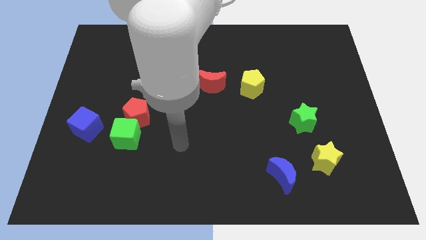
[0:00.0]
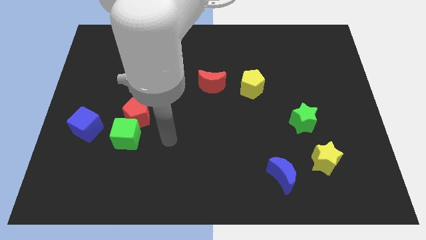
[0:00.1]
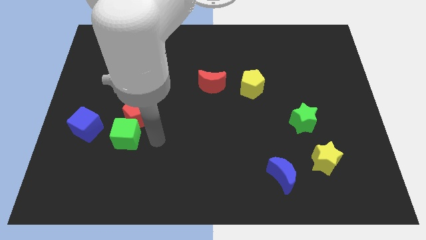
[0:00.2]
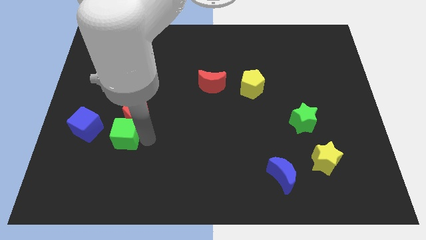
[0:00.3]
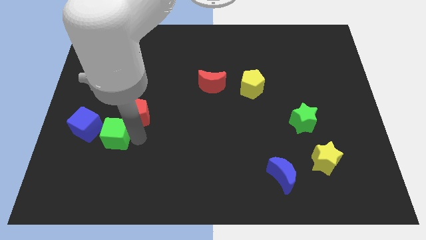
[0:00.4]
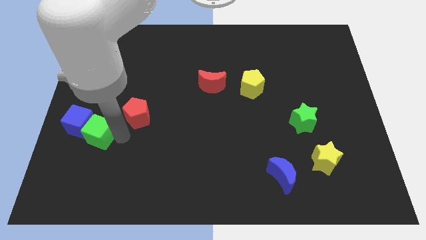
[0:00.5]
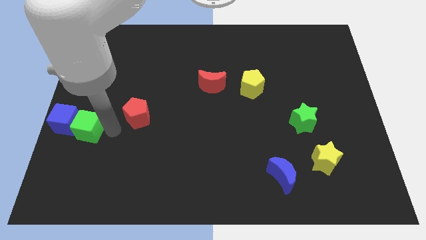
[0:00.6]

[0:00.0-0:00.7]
separate the red pentagon from the green cube

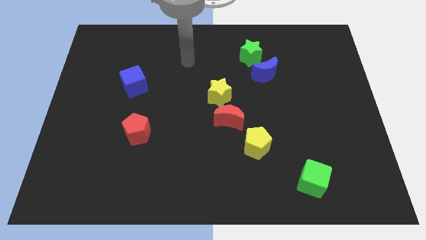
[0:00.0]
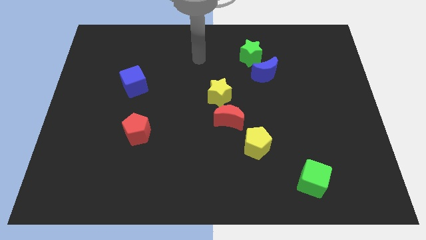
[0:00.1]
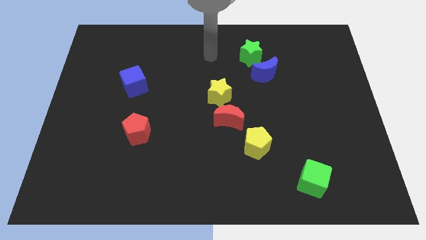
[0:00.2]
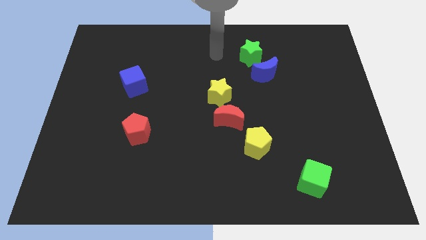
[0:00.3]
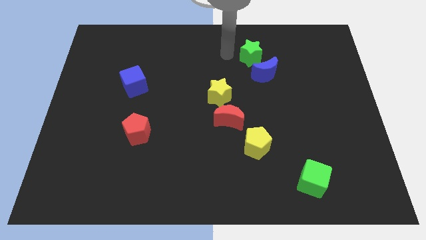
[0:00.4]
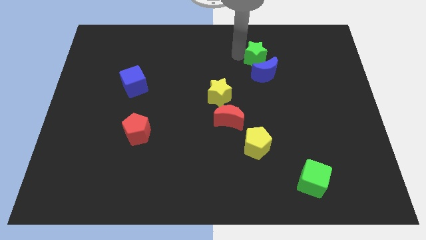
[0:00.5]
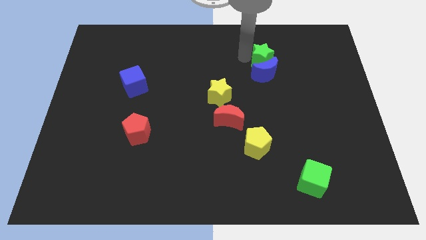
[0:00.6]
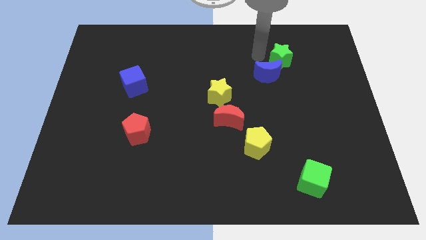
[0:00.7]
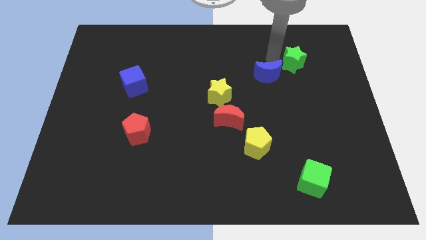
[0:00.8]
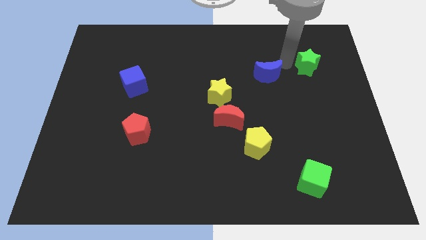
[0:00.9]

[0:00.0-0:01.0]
pull the blue moon apart from the green star

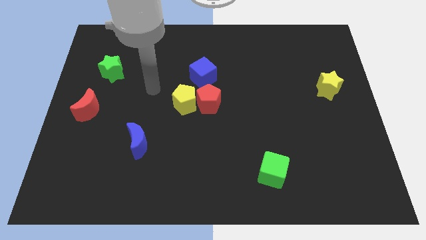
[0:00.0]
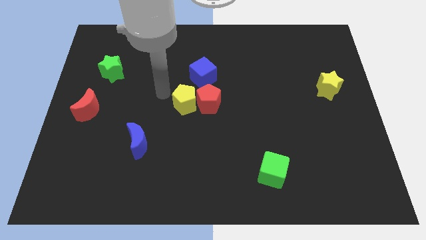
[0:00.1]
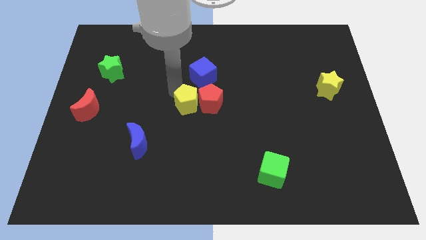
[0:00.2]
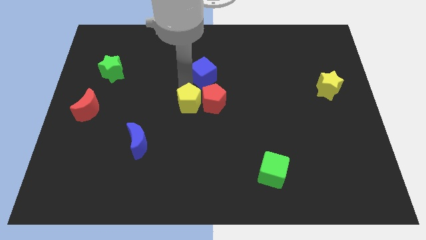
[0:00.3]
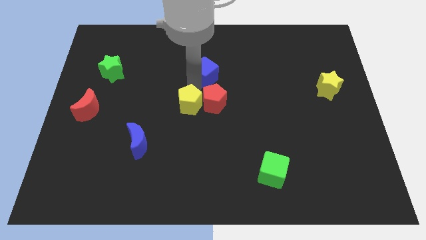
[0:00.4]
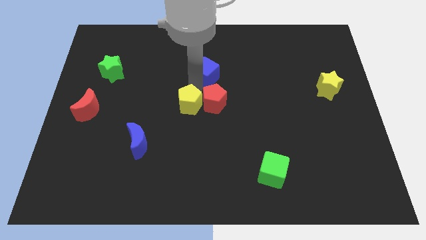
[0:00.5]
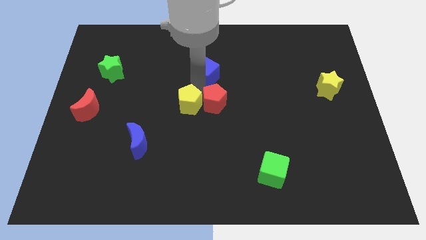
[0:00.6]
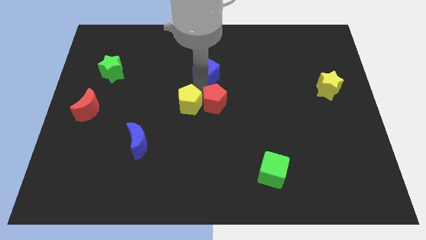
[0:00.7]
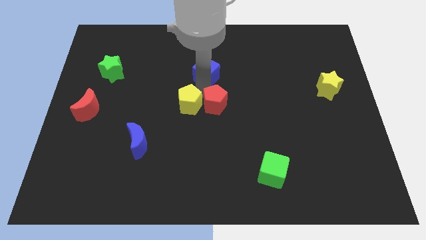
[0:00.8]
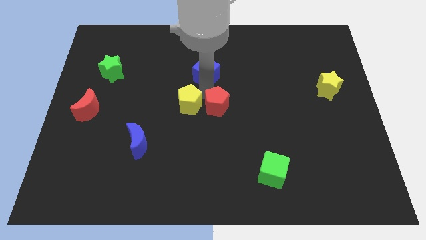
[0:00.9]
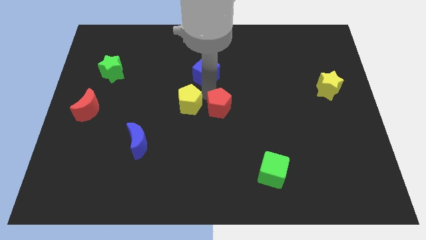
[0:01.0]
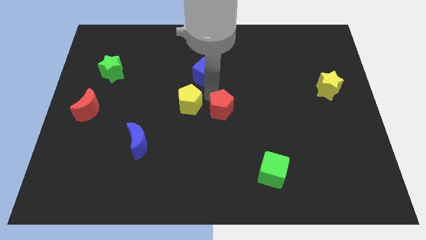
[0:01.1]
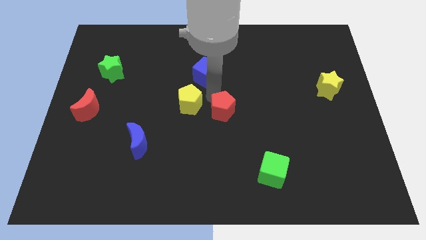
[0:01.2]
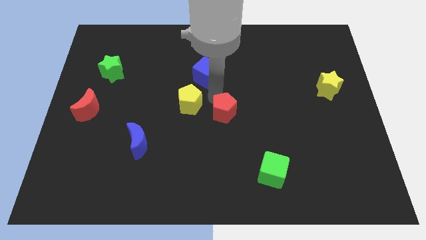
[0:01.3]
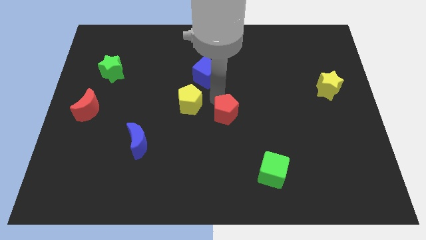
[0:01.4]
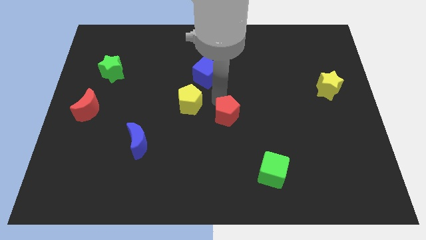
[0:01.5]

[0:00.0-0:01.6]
move the red pentagon away from the yellow pentagon and blue cube

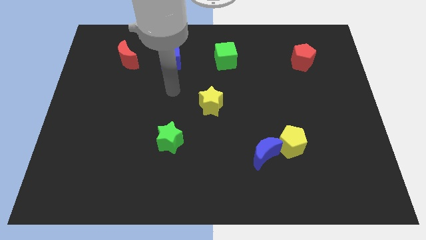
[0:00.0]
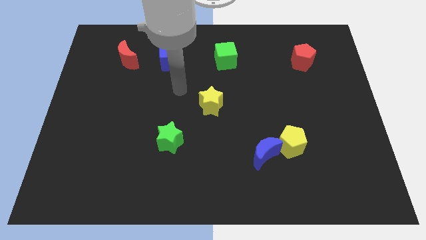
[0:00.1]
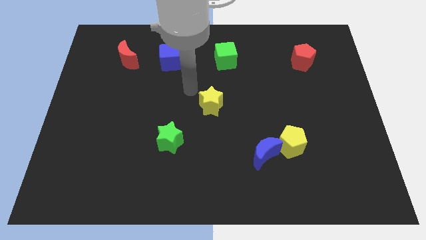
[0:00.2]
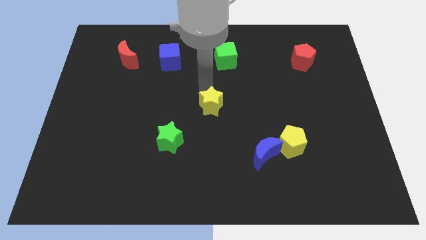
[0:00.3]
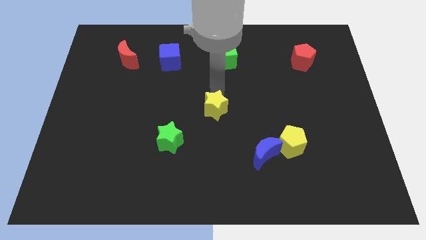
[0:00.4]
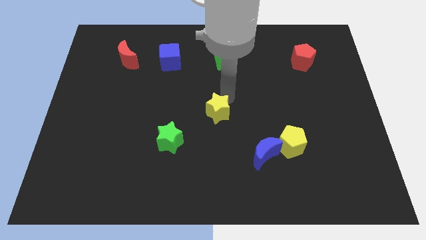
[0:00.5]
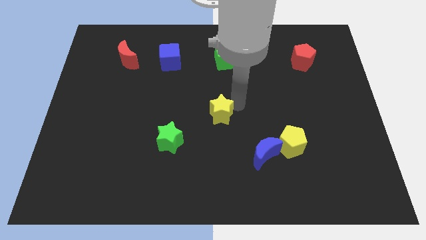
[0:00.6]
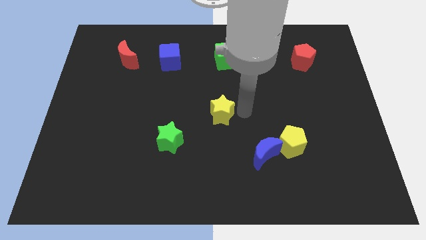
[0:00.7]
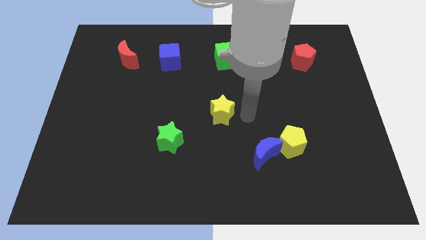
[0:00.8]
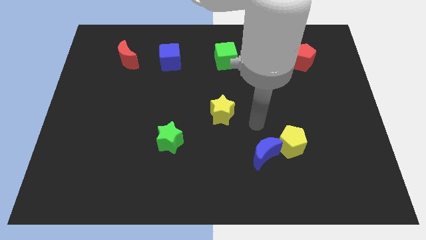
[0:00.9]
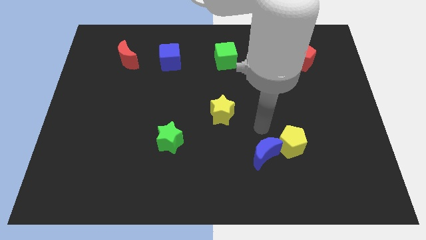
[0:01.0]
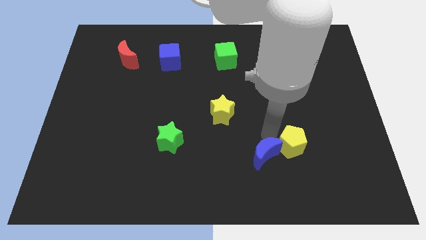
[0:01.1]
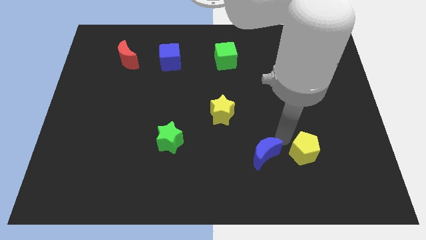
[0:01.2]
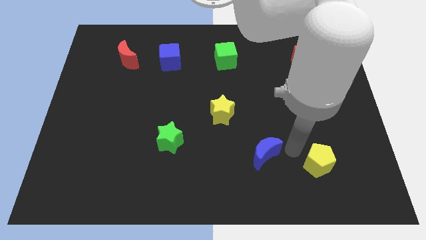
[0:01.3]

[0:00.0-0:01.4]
separate the blue moon from the yellow pentagon

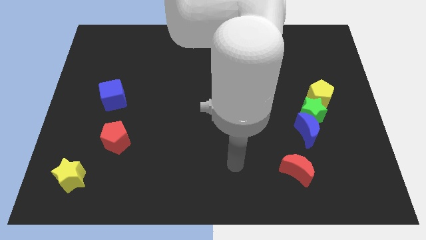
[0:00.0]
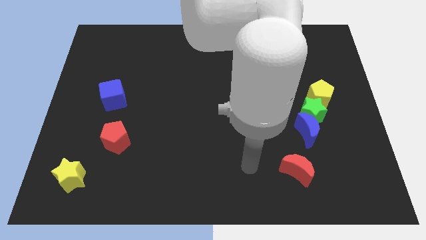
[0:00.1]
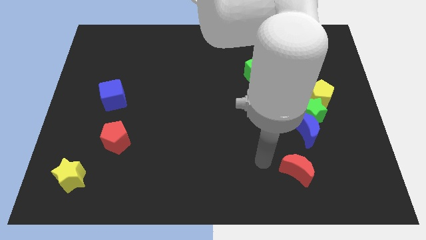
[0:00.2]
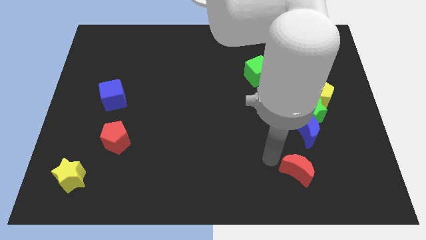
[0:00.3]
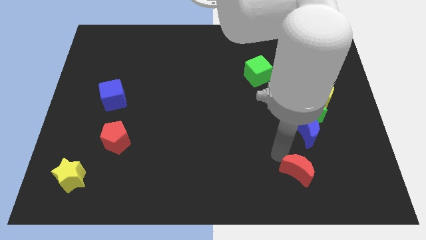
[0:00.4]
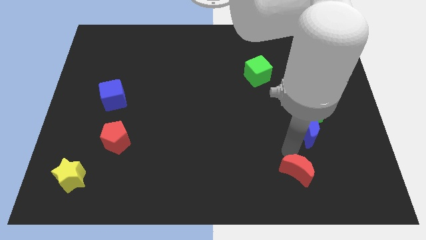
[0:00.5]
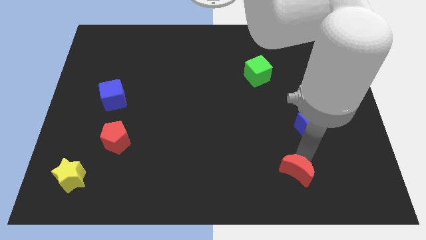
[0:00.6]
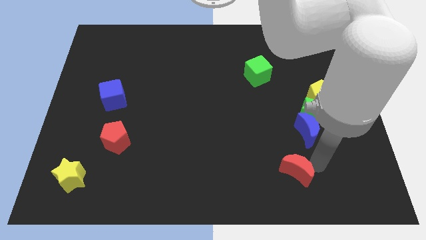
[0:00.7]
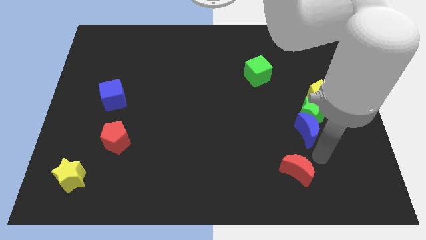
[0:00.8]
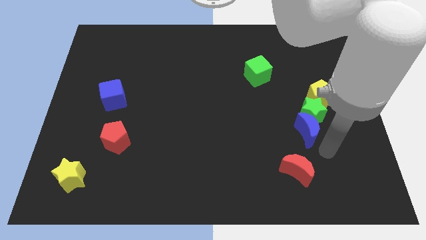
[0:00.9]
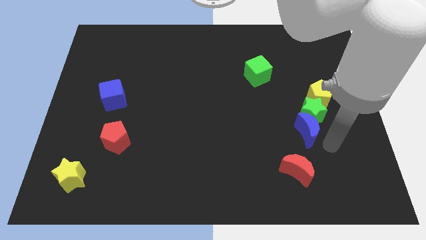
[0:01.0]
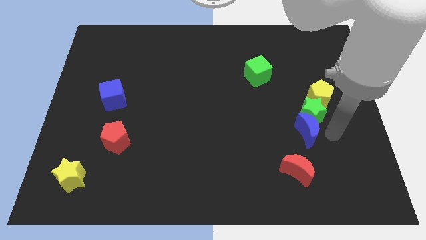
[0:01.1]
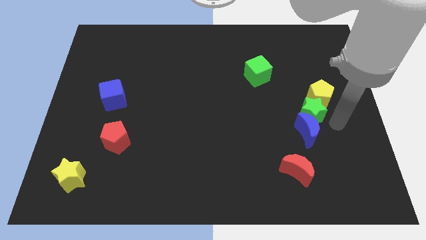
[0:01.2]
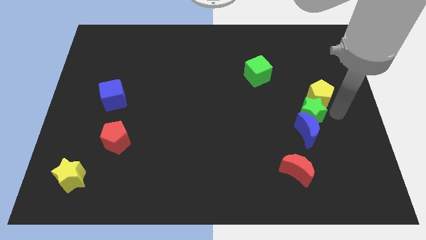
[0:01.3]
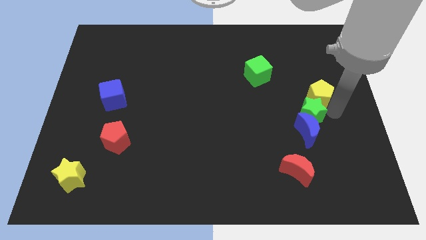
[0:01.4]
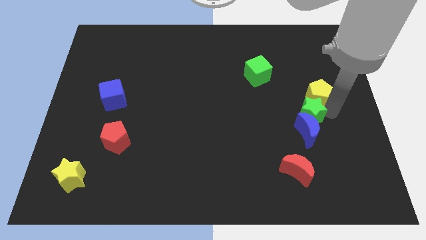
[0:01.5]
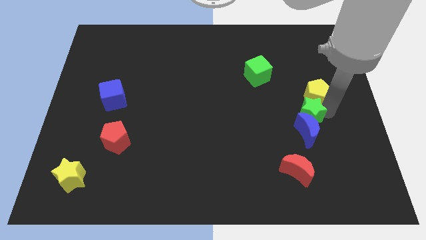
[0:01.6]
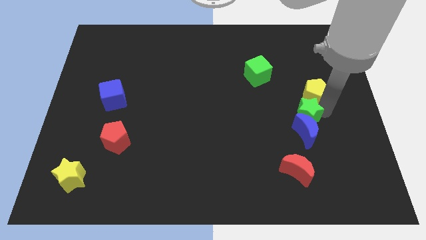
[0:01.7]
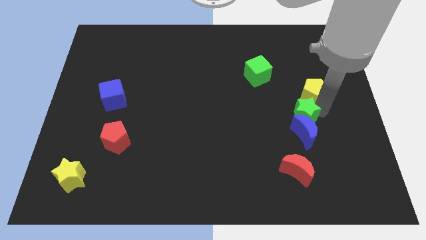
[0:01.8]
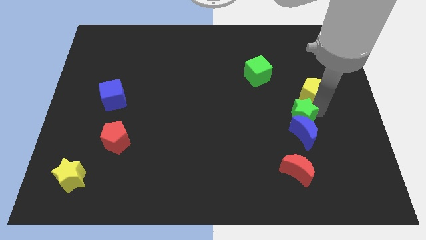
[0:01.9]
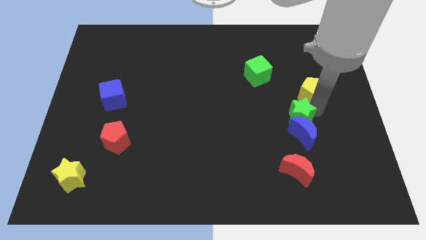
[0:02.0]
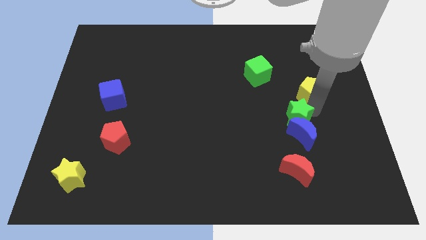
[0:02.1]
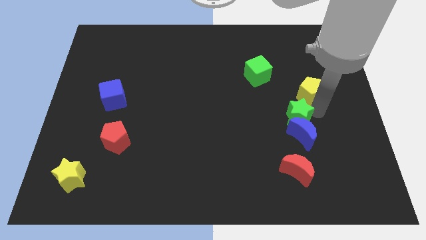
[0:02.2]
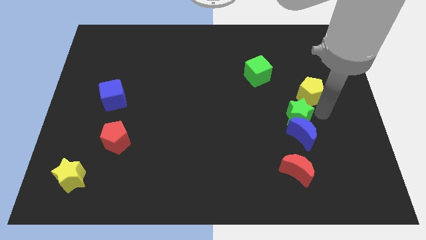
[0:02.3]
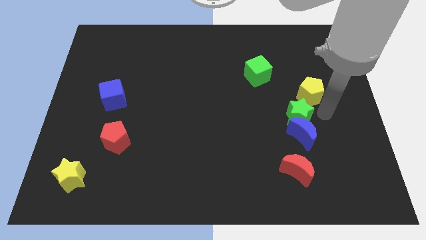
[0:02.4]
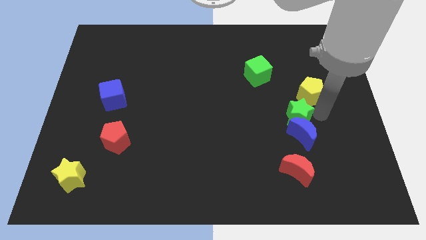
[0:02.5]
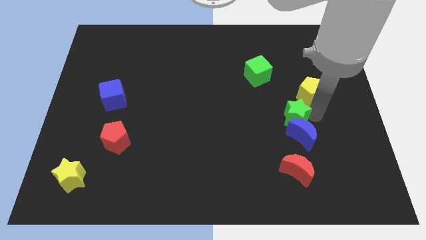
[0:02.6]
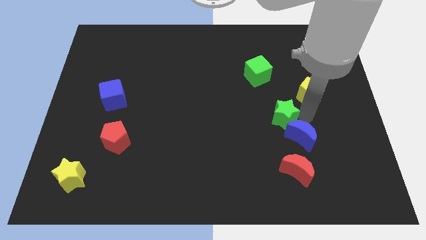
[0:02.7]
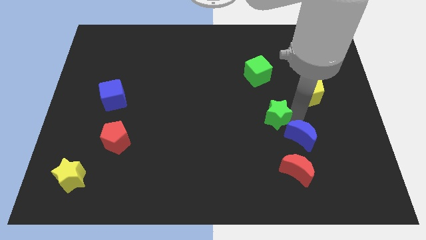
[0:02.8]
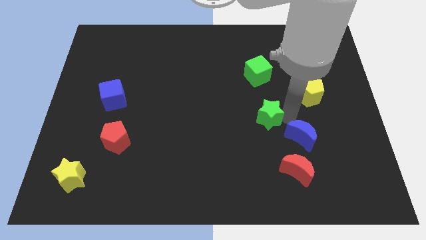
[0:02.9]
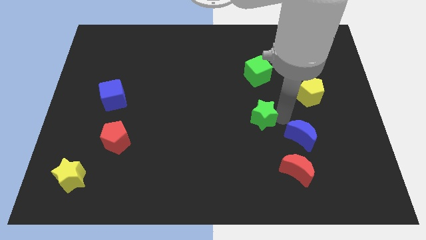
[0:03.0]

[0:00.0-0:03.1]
move the green star away from the blue moon and yellow pentagon

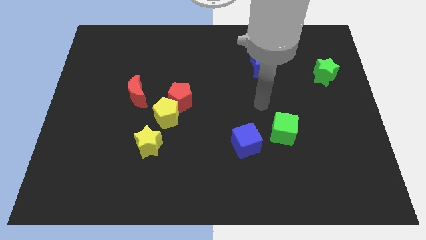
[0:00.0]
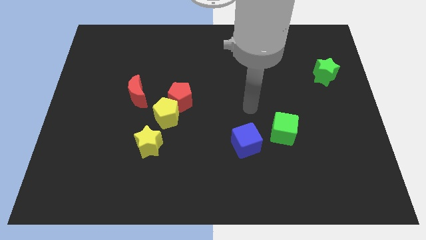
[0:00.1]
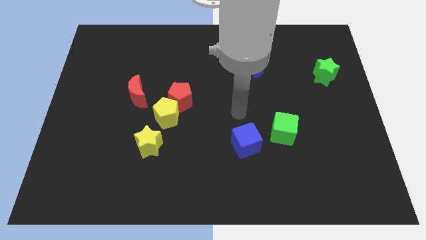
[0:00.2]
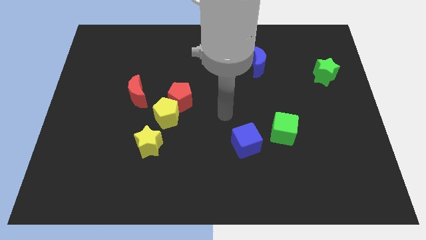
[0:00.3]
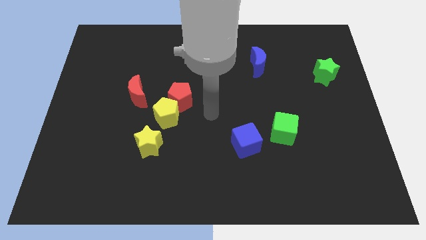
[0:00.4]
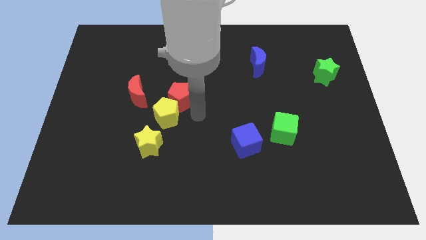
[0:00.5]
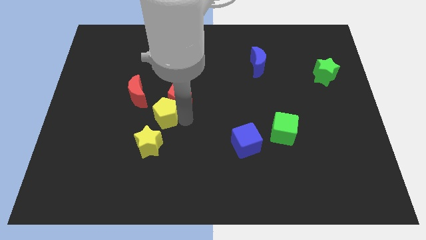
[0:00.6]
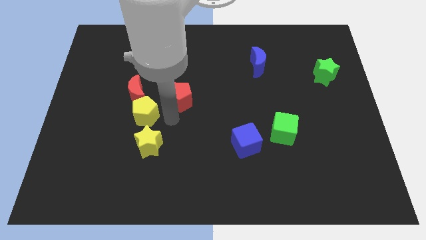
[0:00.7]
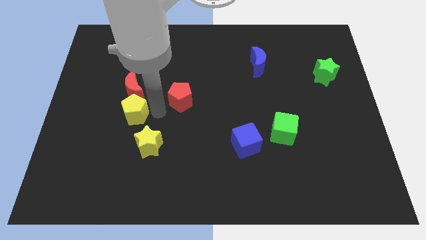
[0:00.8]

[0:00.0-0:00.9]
pull the red pentagon apart from the yellow pentagon

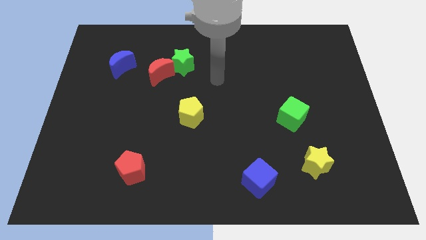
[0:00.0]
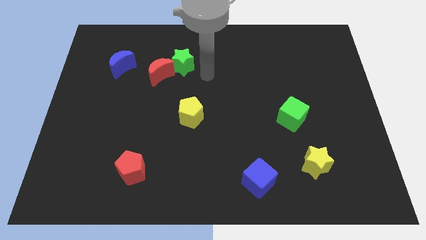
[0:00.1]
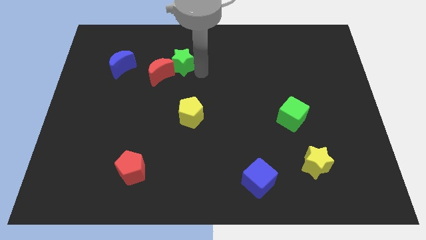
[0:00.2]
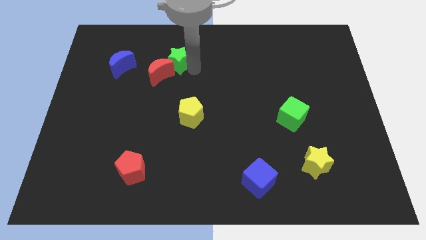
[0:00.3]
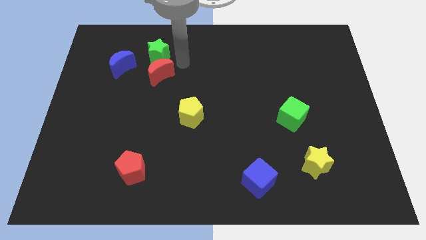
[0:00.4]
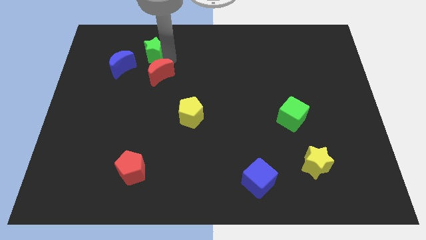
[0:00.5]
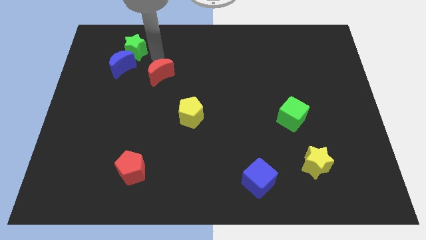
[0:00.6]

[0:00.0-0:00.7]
separate the red moon from the green star
